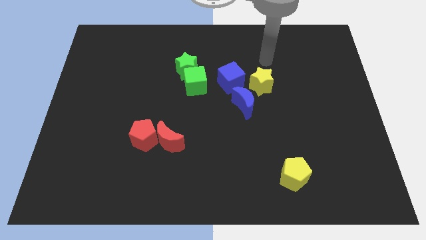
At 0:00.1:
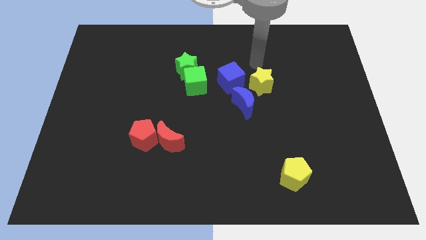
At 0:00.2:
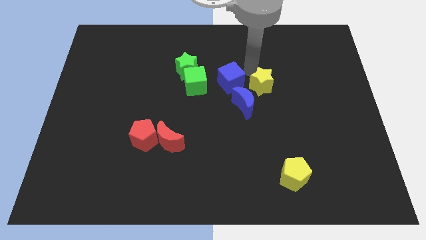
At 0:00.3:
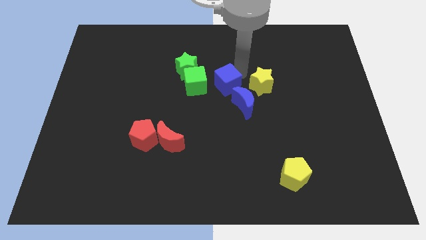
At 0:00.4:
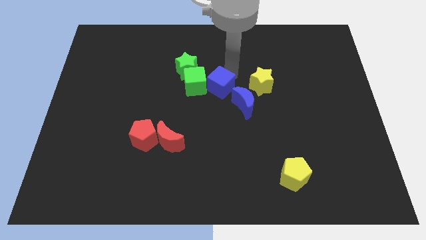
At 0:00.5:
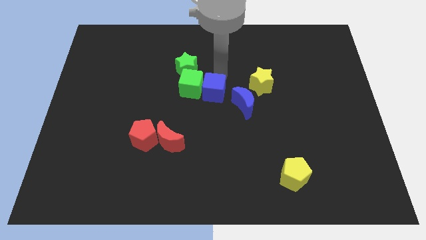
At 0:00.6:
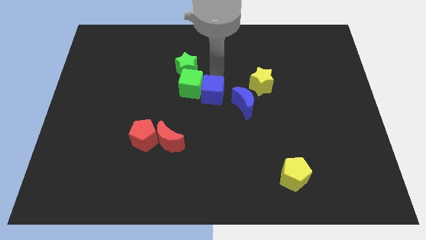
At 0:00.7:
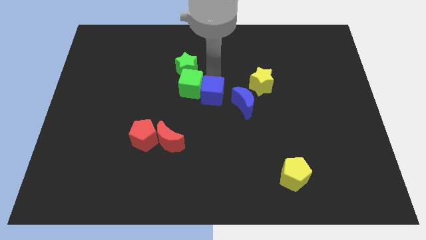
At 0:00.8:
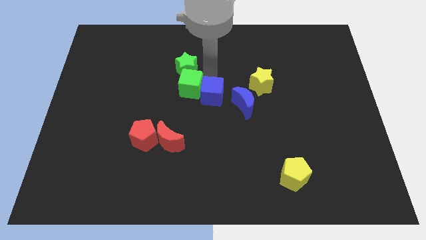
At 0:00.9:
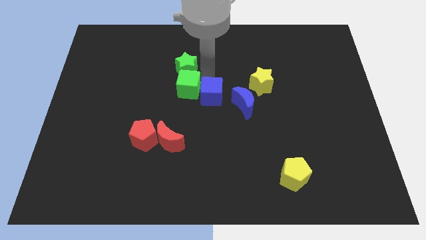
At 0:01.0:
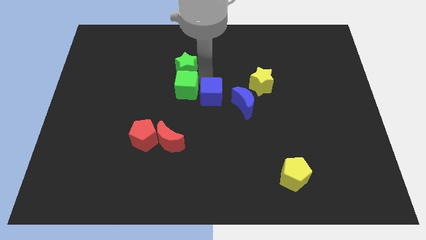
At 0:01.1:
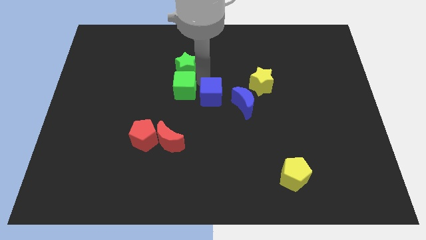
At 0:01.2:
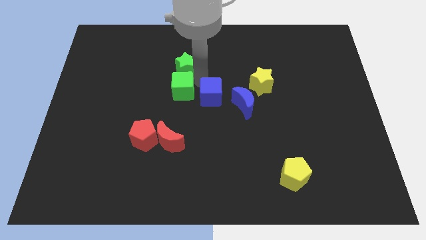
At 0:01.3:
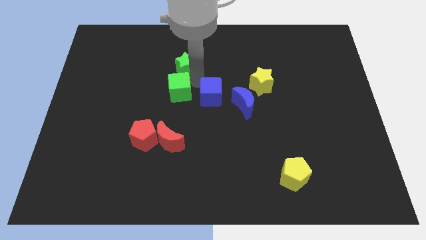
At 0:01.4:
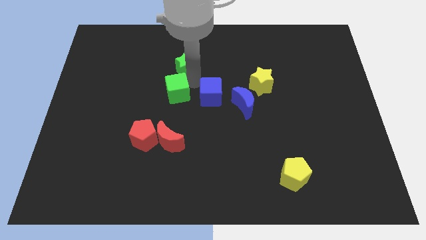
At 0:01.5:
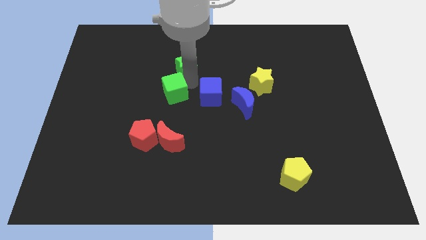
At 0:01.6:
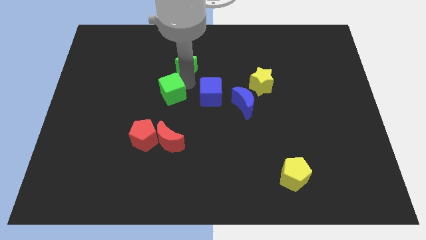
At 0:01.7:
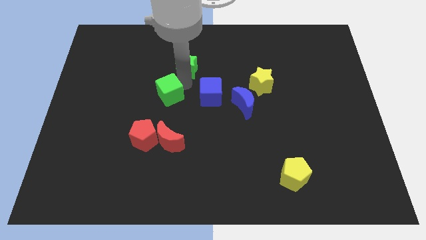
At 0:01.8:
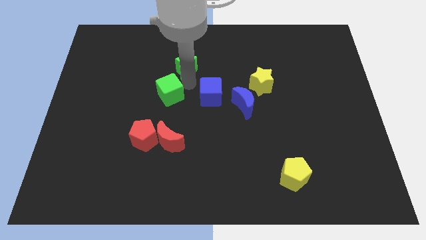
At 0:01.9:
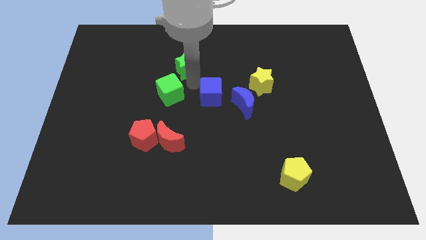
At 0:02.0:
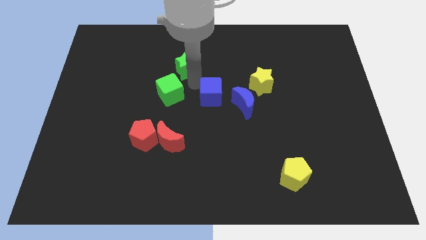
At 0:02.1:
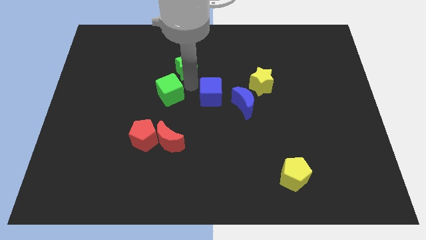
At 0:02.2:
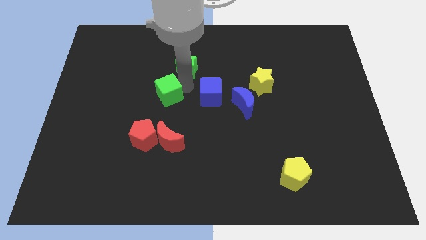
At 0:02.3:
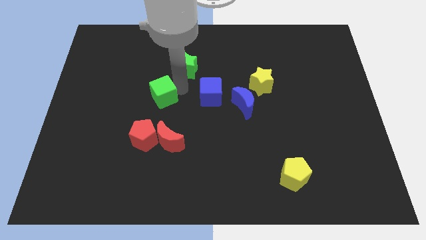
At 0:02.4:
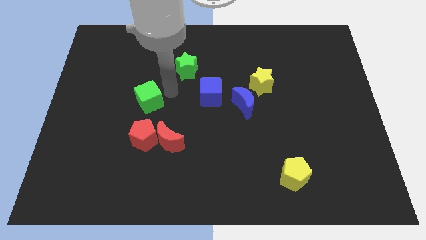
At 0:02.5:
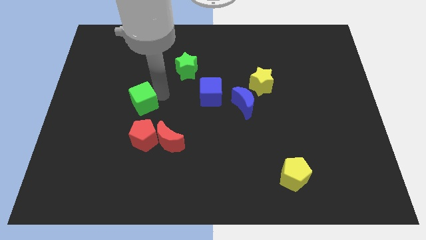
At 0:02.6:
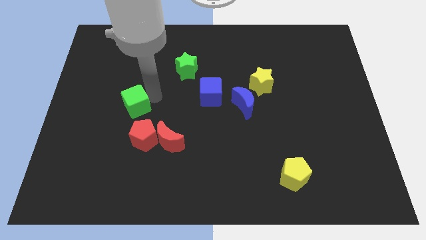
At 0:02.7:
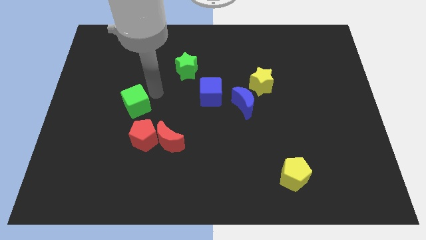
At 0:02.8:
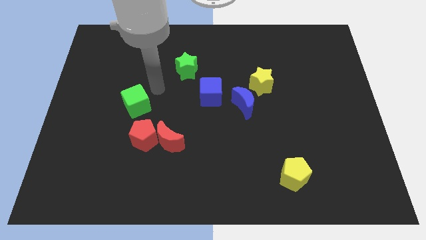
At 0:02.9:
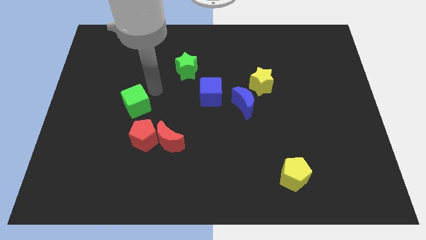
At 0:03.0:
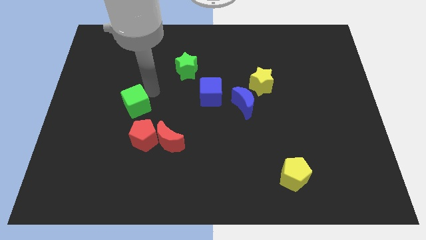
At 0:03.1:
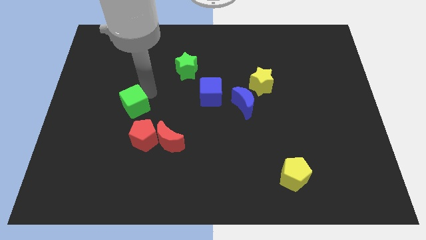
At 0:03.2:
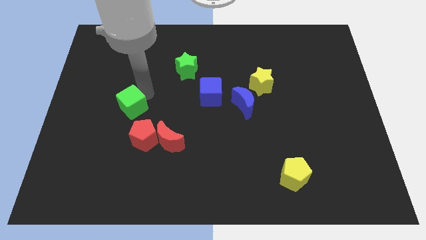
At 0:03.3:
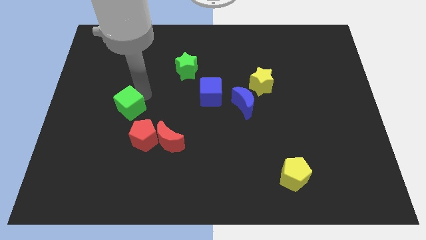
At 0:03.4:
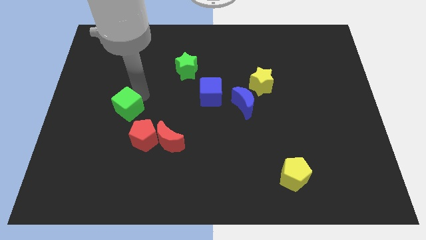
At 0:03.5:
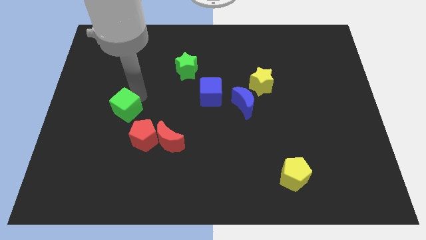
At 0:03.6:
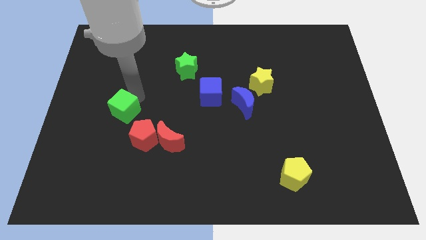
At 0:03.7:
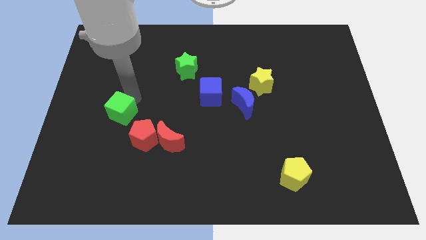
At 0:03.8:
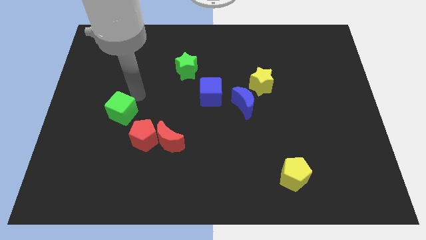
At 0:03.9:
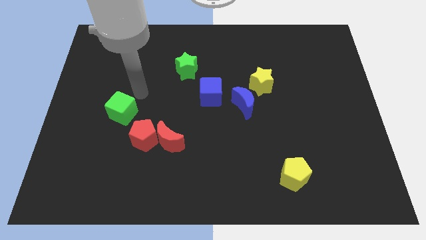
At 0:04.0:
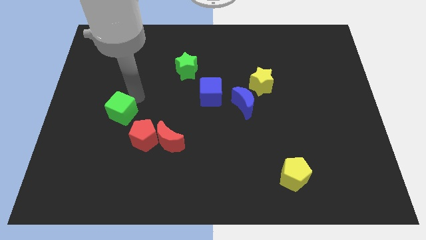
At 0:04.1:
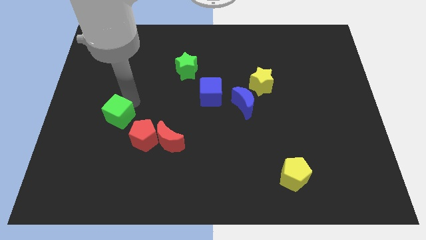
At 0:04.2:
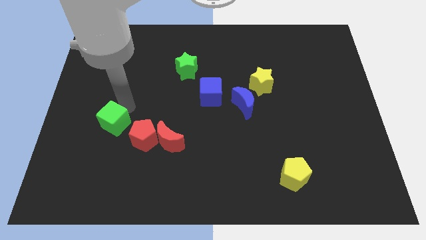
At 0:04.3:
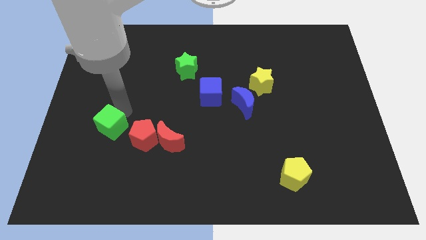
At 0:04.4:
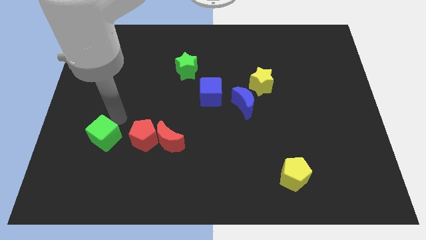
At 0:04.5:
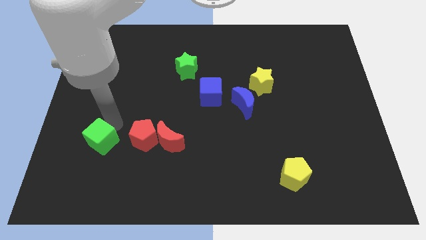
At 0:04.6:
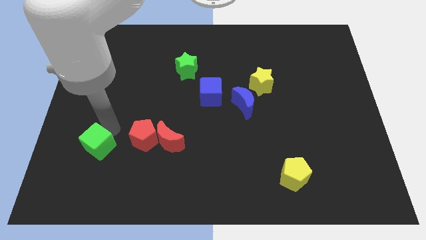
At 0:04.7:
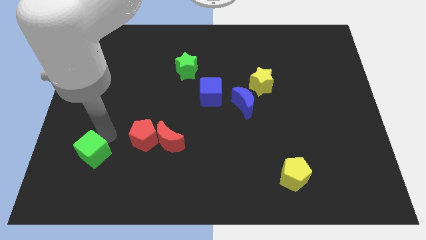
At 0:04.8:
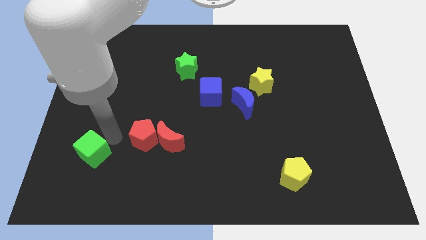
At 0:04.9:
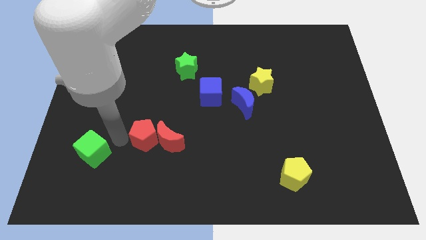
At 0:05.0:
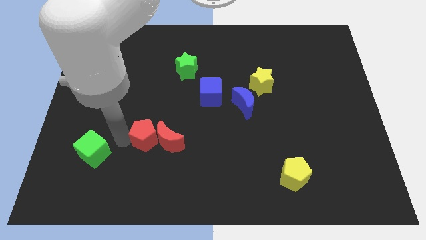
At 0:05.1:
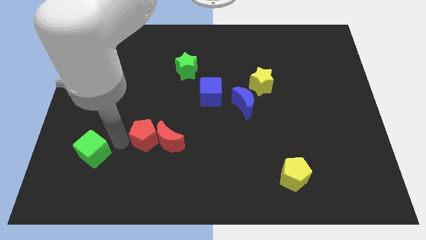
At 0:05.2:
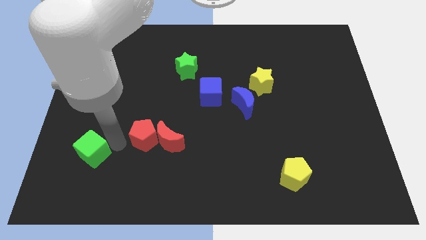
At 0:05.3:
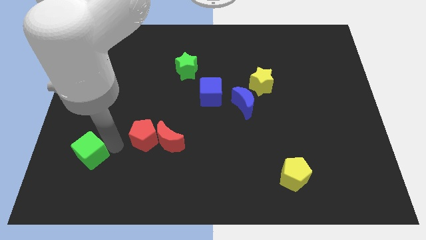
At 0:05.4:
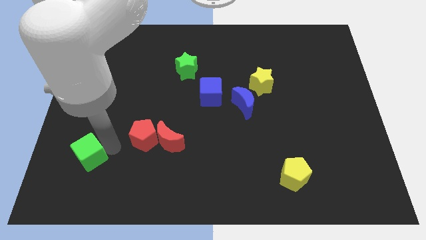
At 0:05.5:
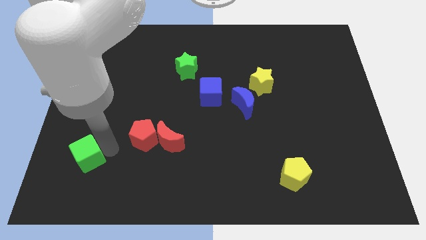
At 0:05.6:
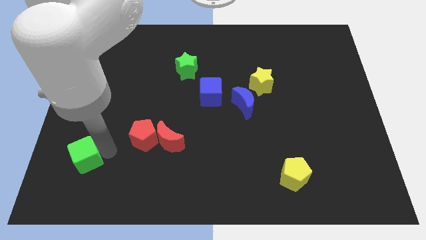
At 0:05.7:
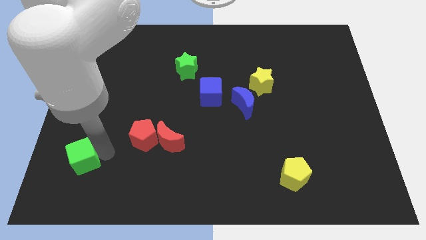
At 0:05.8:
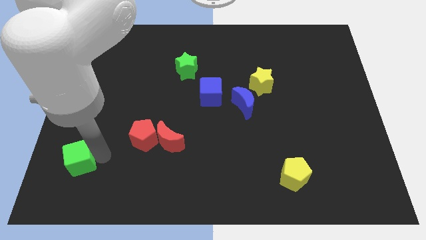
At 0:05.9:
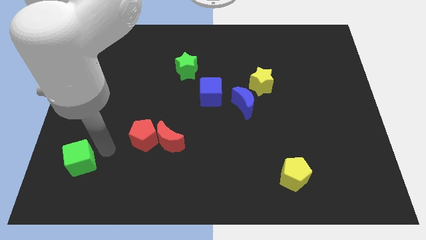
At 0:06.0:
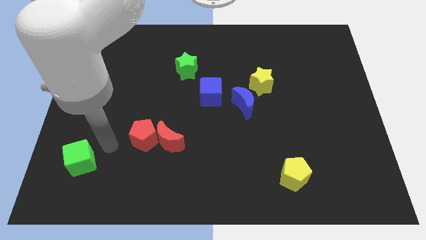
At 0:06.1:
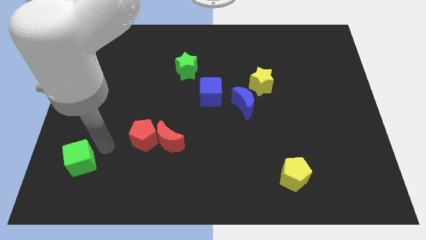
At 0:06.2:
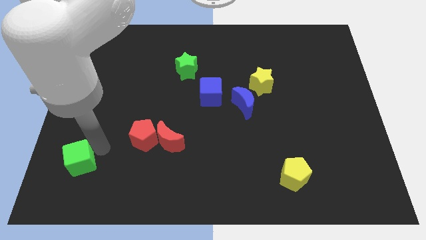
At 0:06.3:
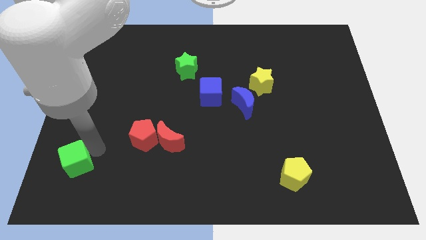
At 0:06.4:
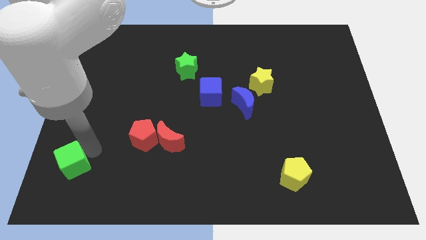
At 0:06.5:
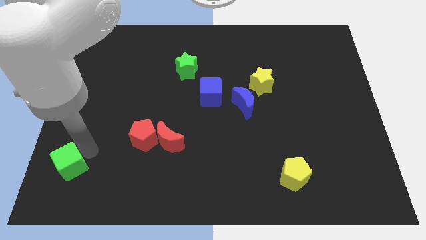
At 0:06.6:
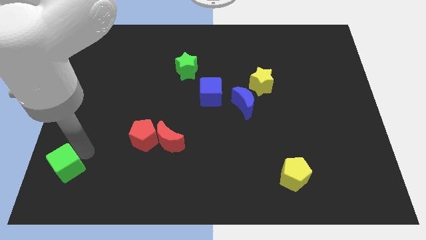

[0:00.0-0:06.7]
push the green cube to the bottom left
